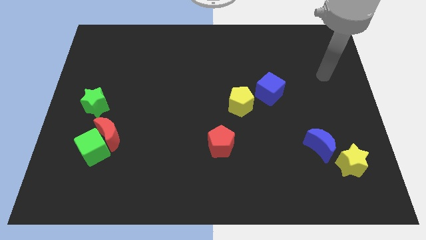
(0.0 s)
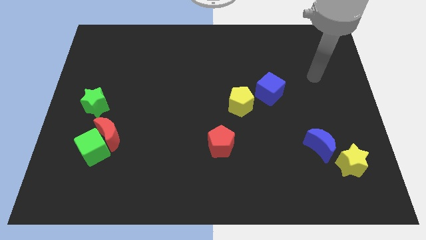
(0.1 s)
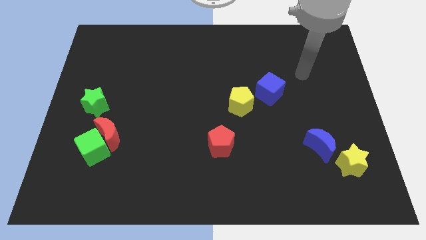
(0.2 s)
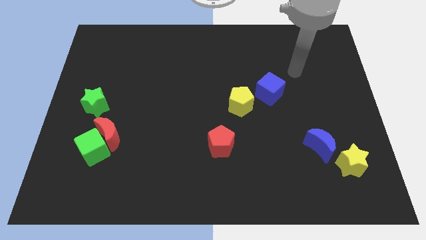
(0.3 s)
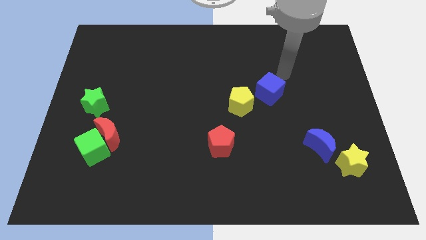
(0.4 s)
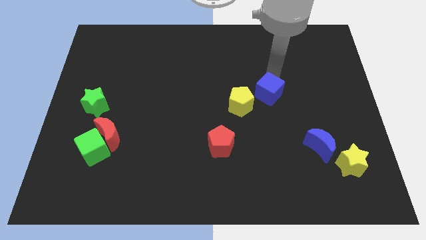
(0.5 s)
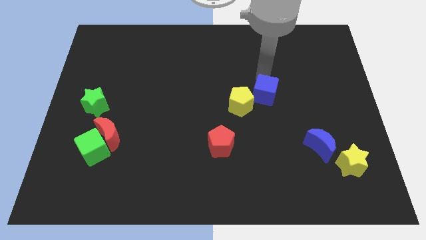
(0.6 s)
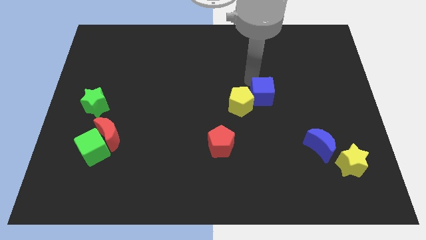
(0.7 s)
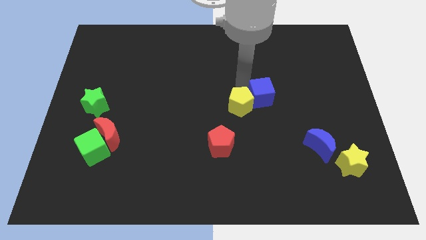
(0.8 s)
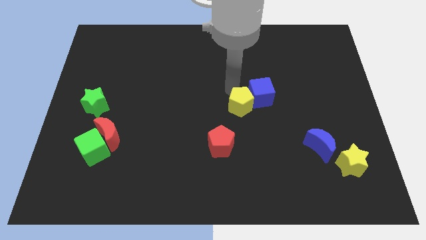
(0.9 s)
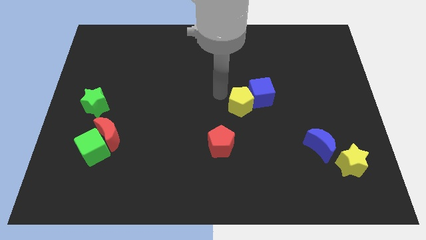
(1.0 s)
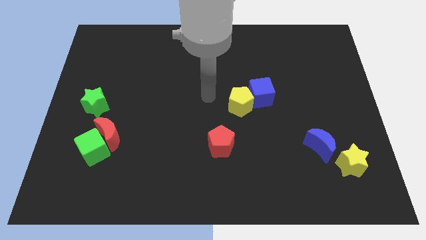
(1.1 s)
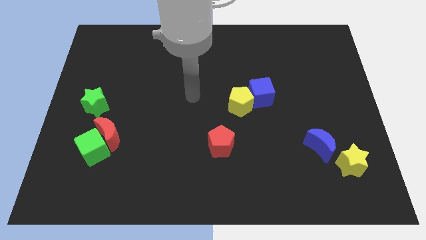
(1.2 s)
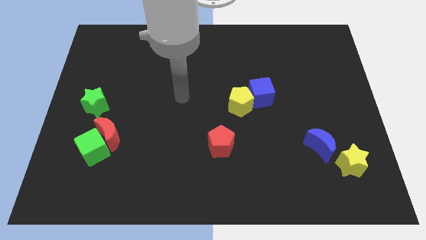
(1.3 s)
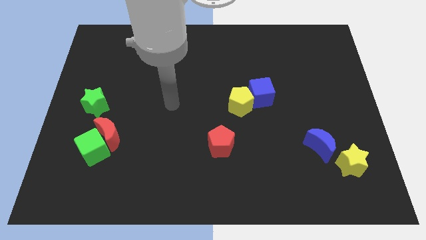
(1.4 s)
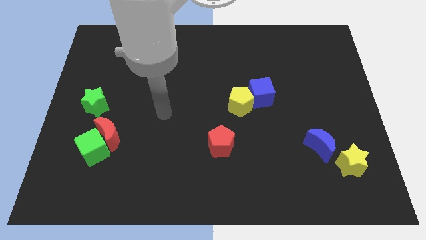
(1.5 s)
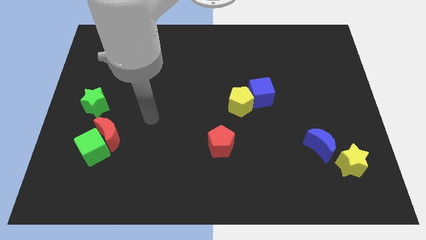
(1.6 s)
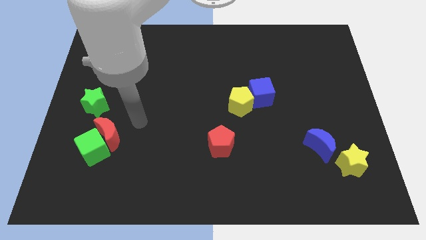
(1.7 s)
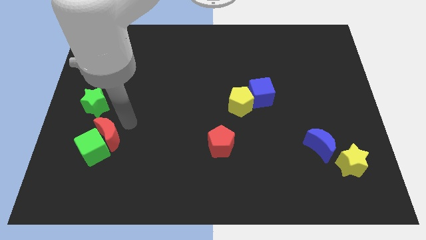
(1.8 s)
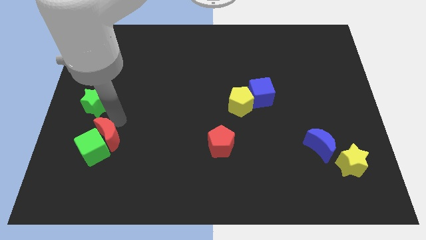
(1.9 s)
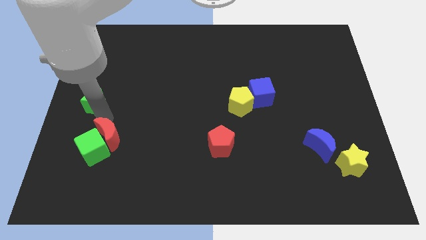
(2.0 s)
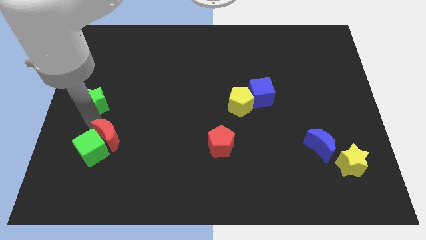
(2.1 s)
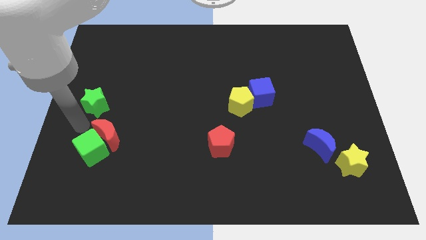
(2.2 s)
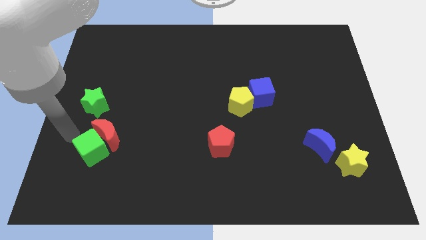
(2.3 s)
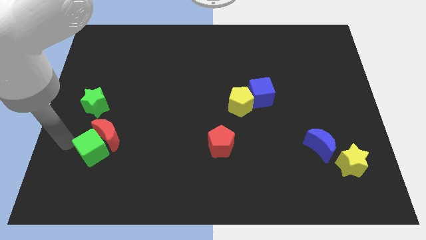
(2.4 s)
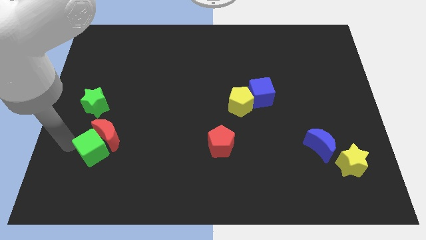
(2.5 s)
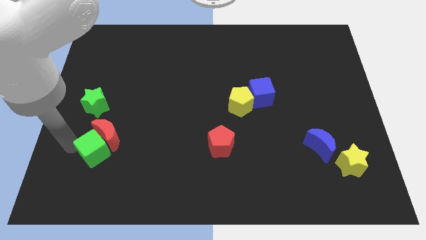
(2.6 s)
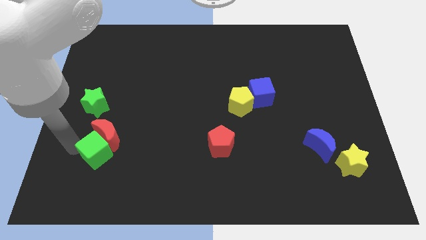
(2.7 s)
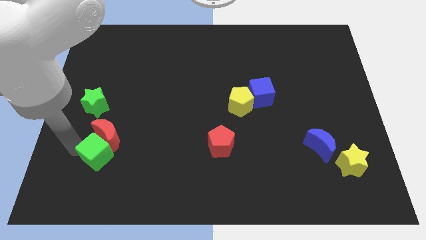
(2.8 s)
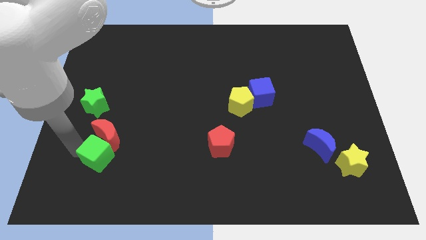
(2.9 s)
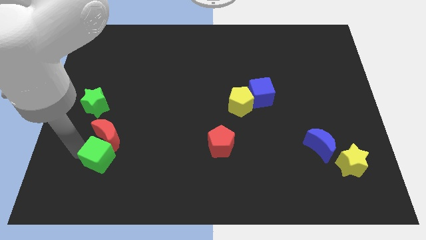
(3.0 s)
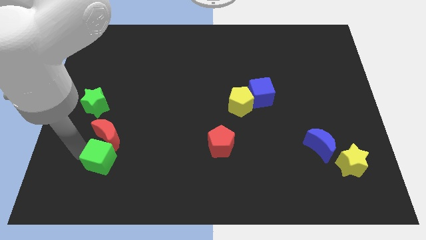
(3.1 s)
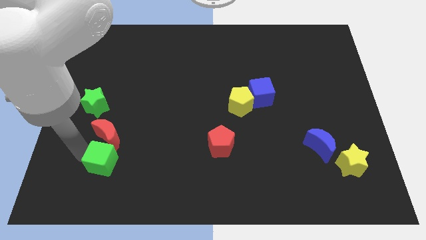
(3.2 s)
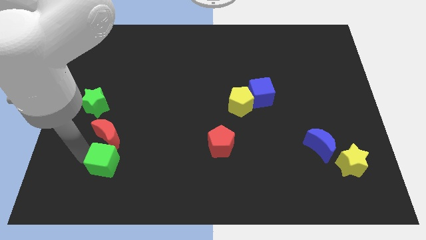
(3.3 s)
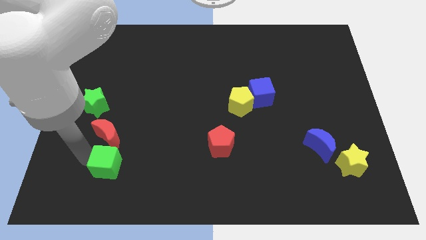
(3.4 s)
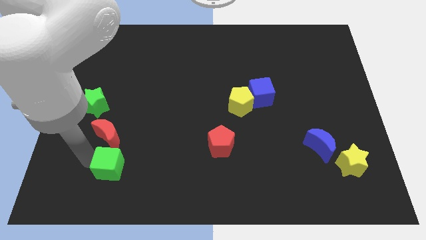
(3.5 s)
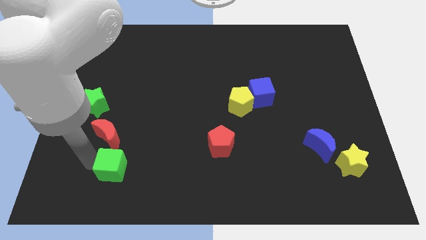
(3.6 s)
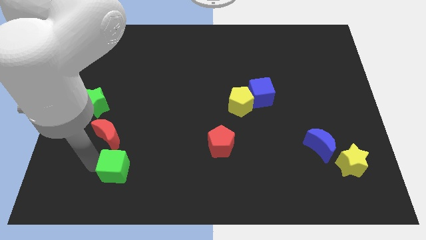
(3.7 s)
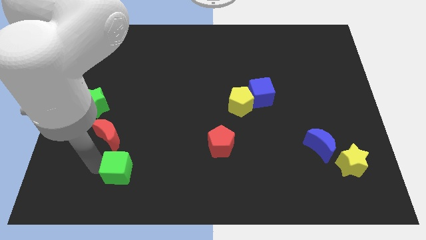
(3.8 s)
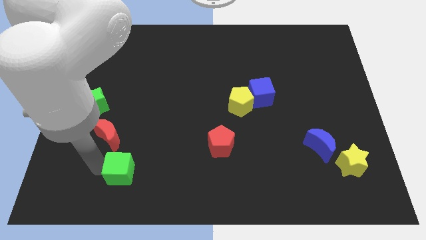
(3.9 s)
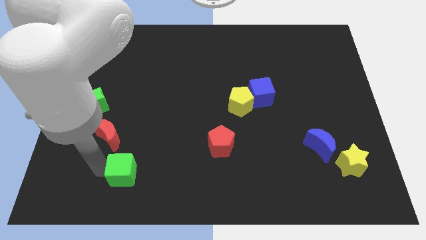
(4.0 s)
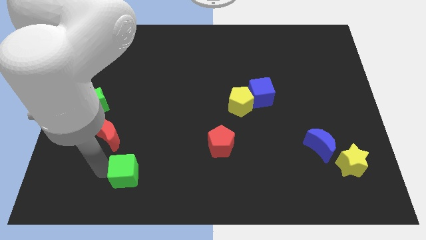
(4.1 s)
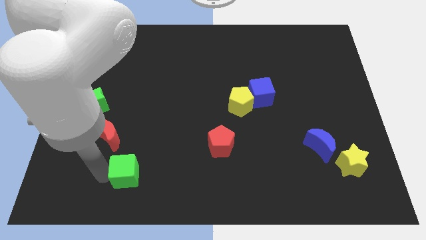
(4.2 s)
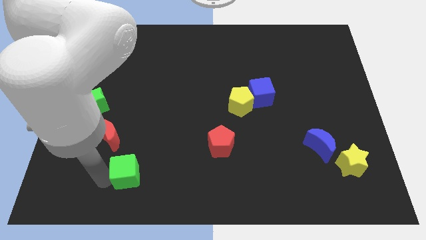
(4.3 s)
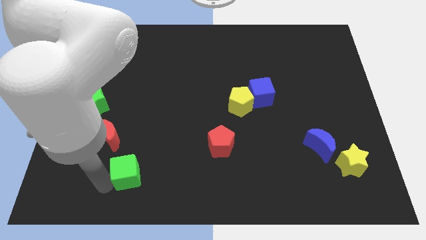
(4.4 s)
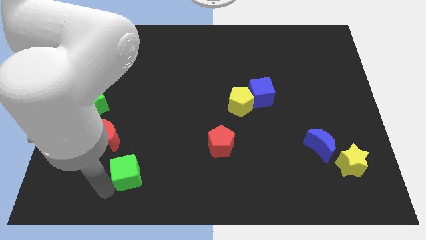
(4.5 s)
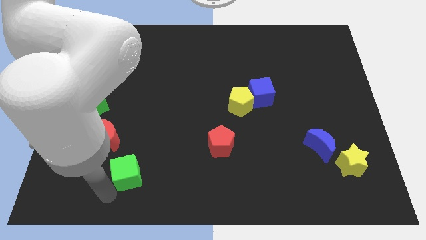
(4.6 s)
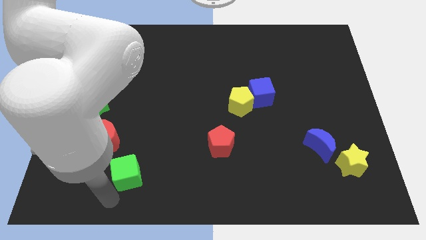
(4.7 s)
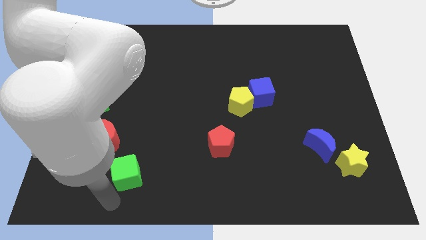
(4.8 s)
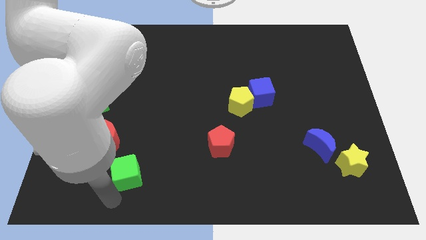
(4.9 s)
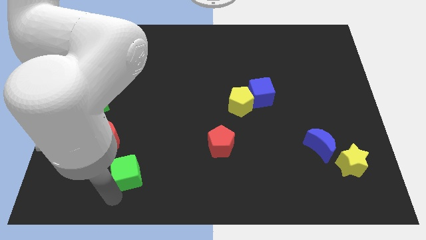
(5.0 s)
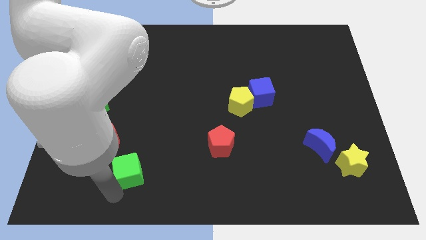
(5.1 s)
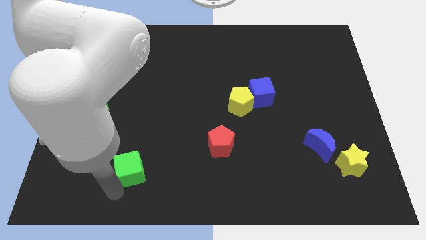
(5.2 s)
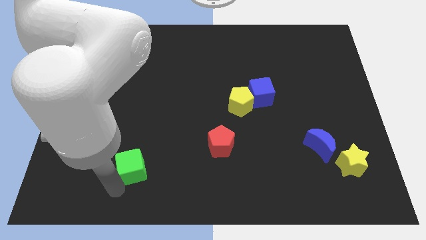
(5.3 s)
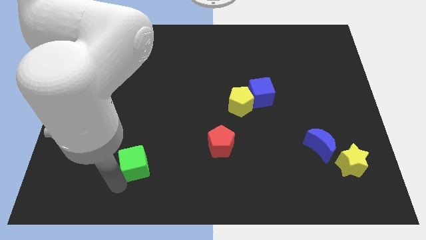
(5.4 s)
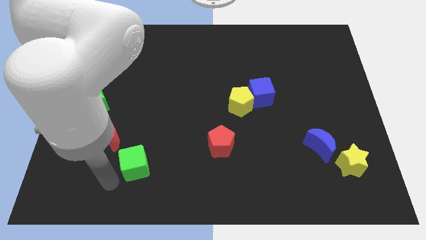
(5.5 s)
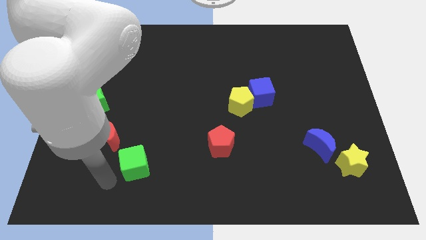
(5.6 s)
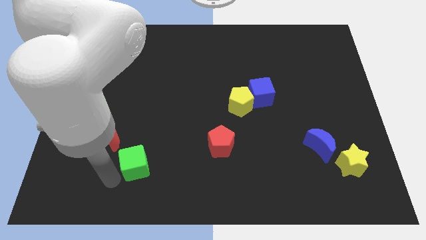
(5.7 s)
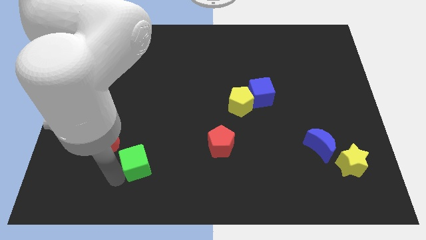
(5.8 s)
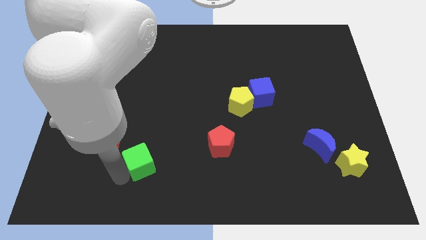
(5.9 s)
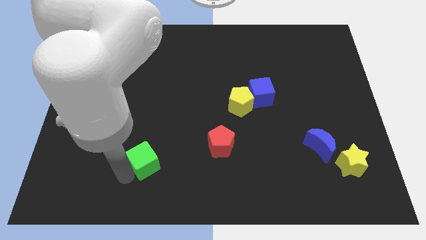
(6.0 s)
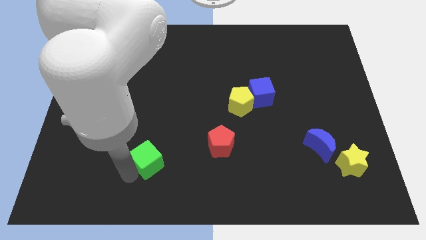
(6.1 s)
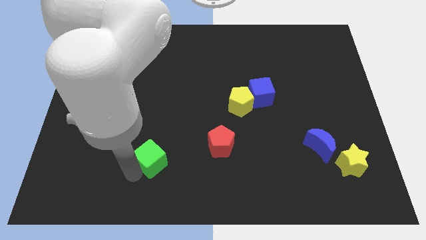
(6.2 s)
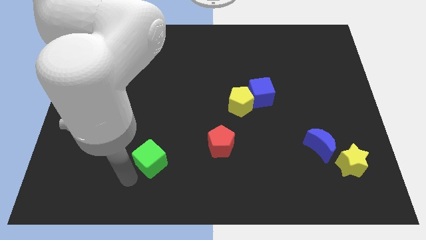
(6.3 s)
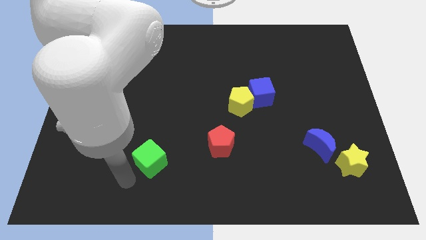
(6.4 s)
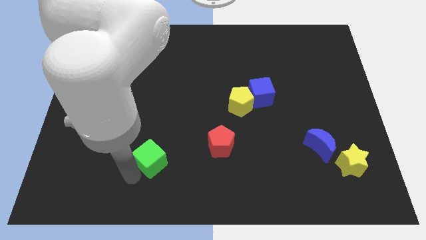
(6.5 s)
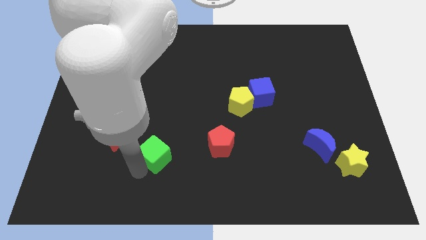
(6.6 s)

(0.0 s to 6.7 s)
put the green cube to the left side of the red pentagon

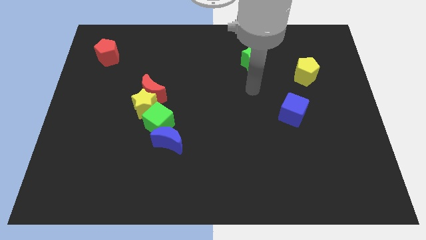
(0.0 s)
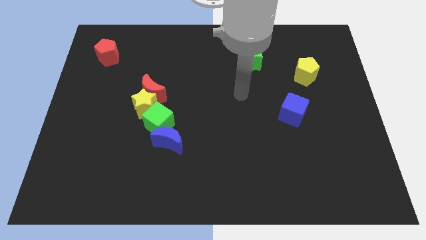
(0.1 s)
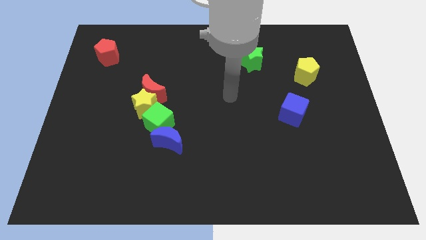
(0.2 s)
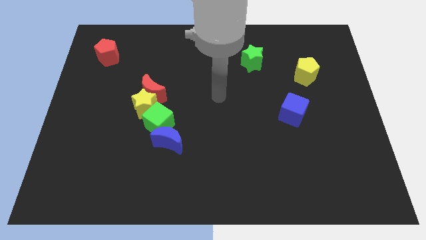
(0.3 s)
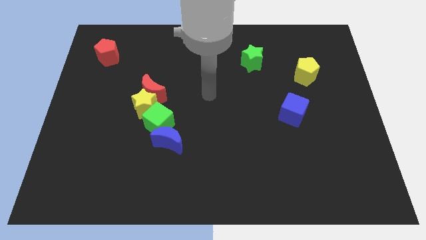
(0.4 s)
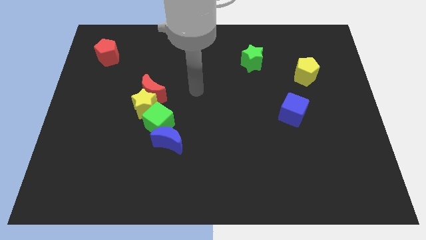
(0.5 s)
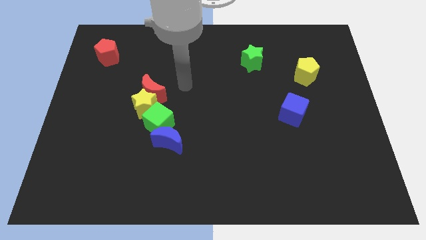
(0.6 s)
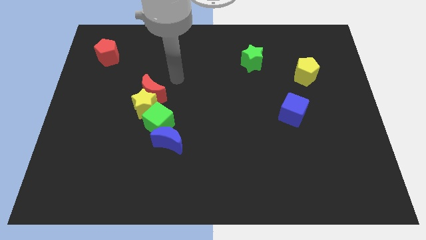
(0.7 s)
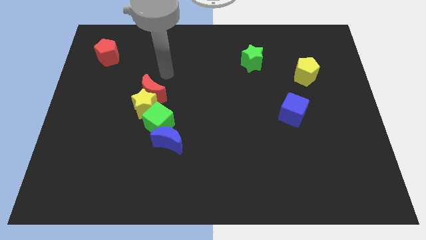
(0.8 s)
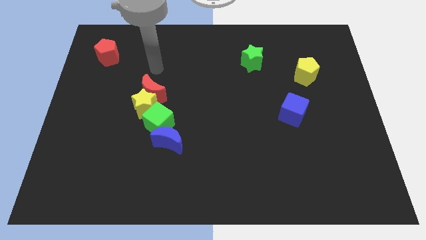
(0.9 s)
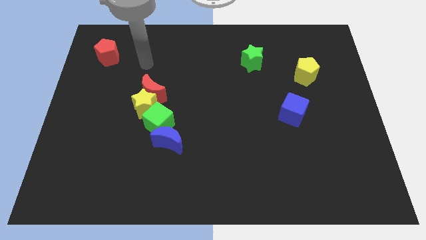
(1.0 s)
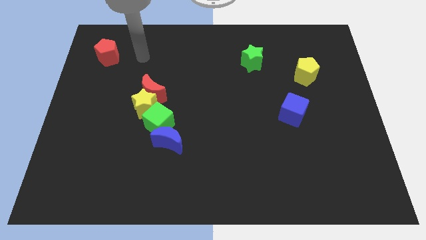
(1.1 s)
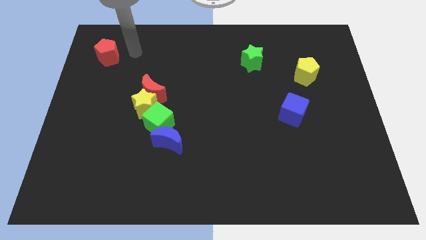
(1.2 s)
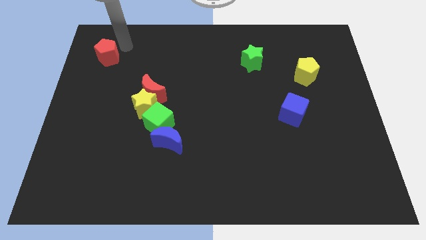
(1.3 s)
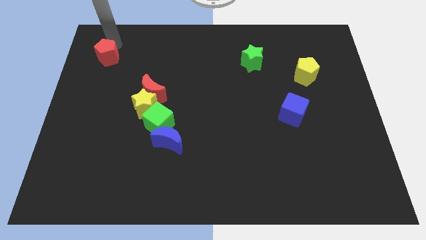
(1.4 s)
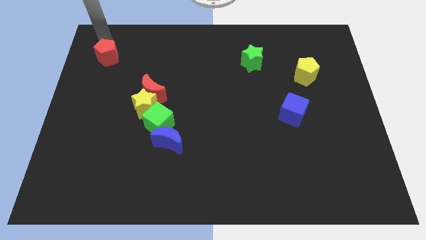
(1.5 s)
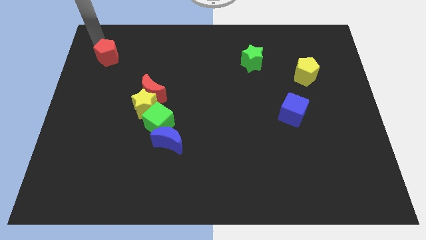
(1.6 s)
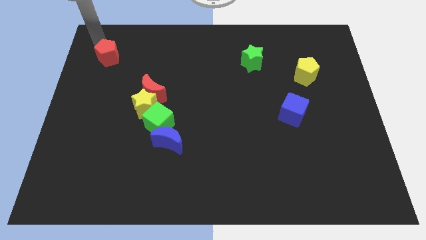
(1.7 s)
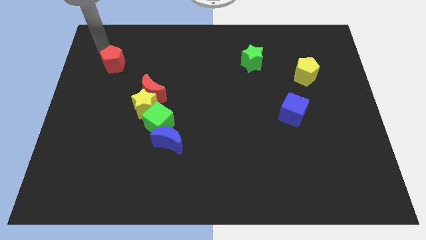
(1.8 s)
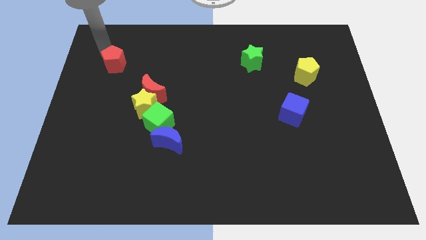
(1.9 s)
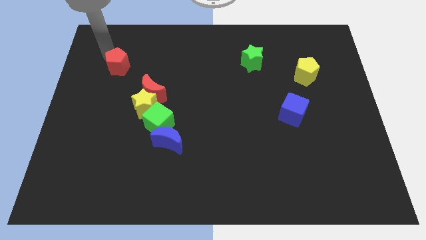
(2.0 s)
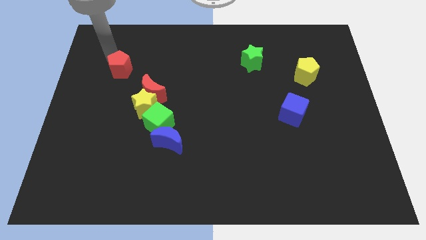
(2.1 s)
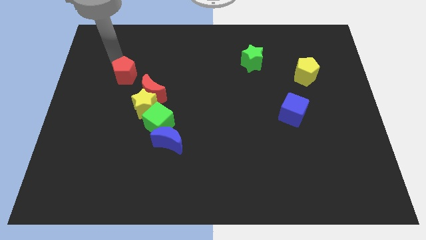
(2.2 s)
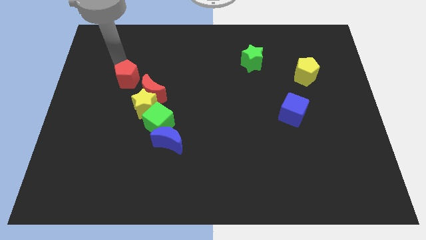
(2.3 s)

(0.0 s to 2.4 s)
move the red pentagon to the top left of the yellow star
